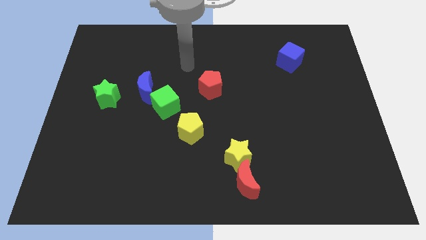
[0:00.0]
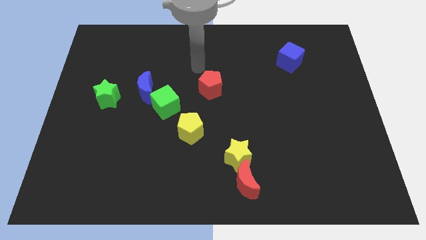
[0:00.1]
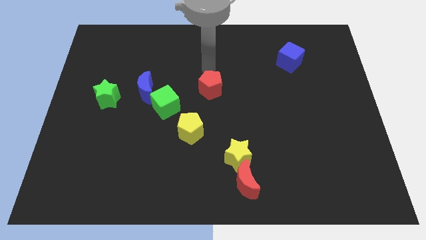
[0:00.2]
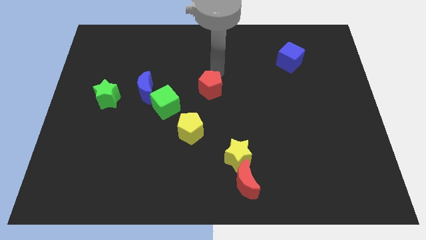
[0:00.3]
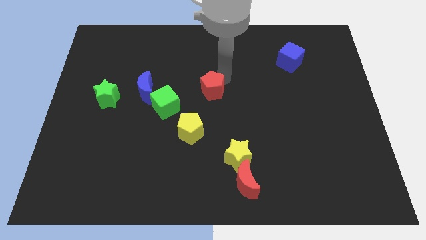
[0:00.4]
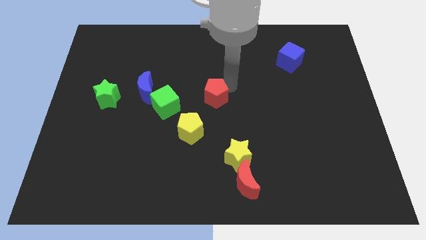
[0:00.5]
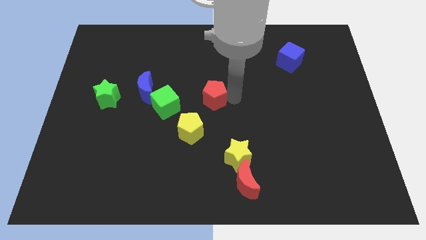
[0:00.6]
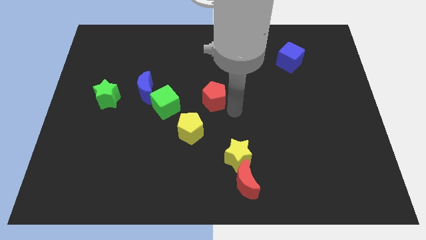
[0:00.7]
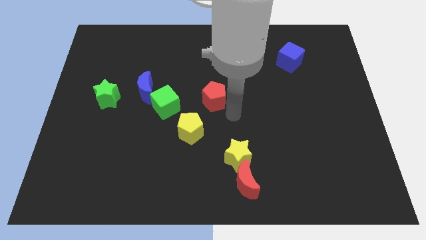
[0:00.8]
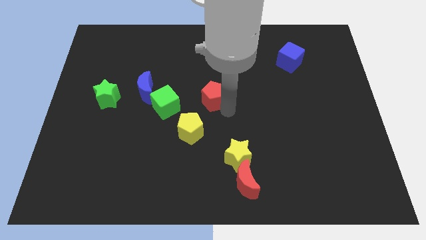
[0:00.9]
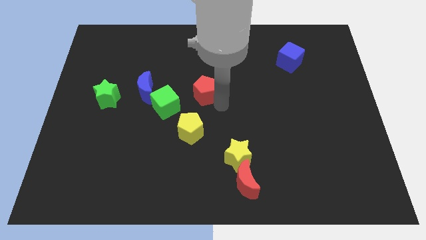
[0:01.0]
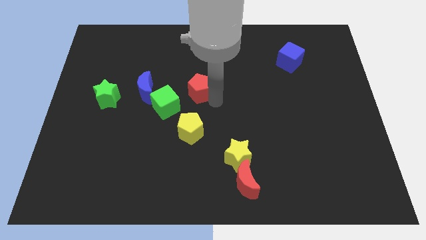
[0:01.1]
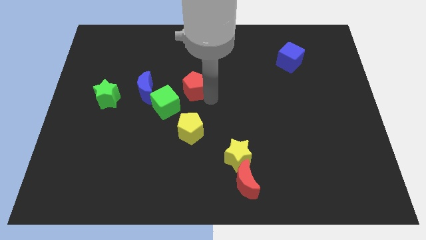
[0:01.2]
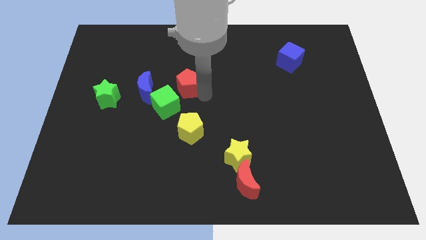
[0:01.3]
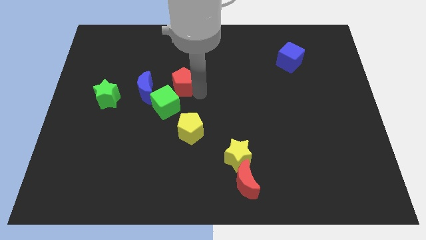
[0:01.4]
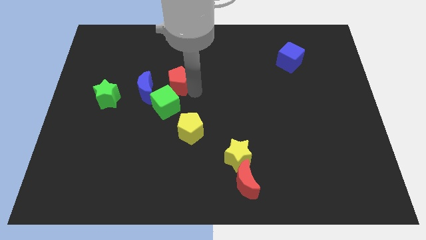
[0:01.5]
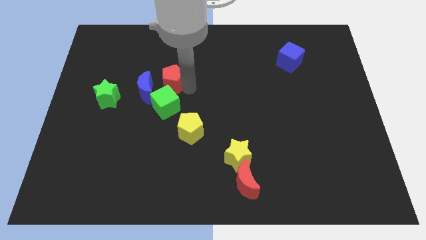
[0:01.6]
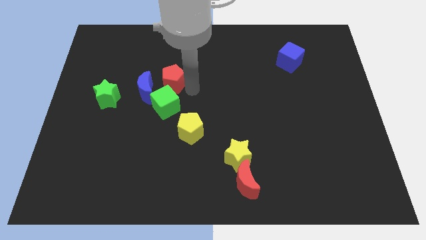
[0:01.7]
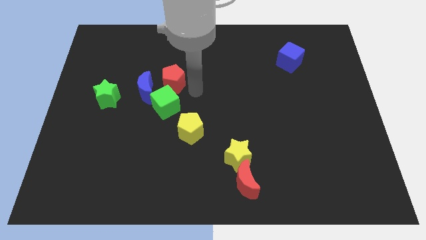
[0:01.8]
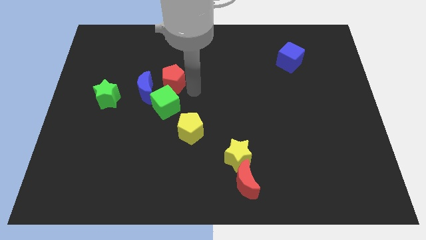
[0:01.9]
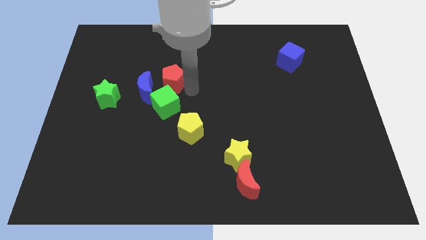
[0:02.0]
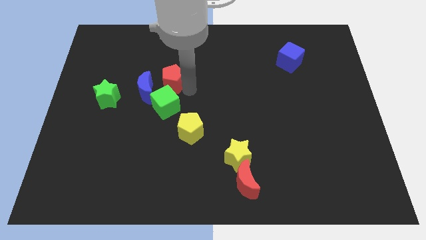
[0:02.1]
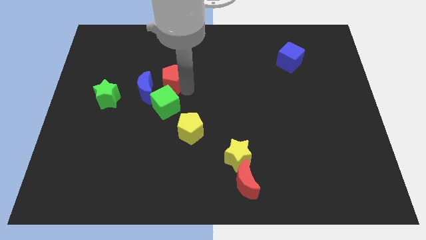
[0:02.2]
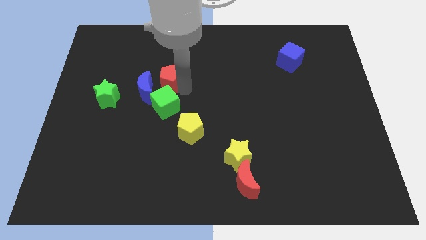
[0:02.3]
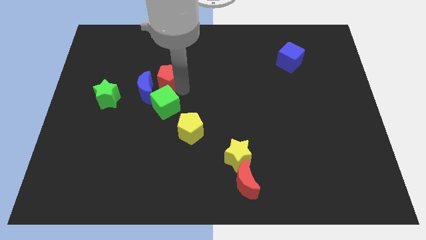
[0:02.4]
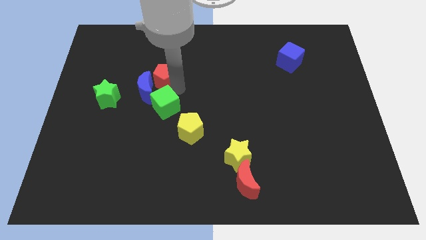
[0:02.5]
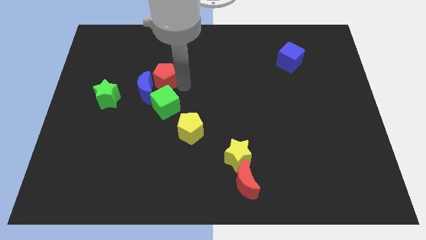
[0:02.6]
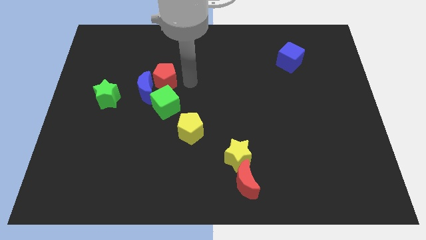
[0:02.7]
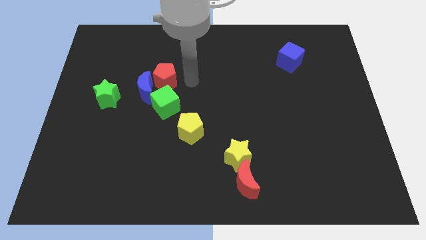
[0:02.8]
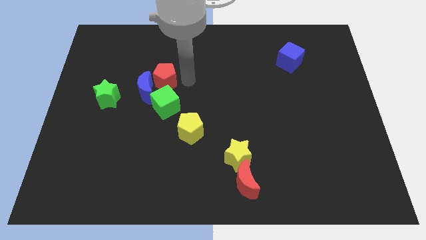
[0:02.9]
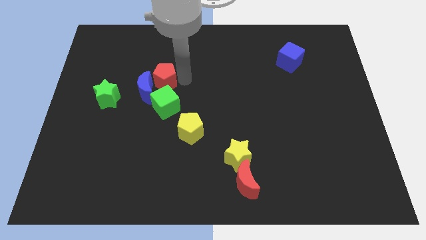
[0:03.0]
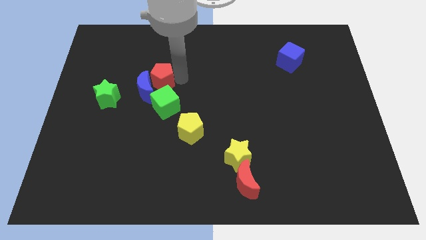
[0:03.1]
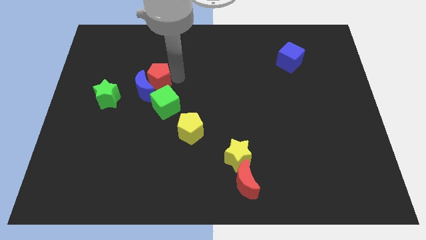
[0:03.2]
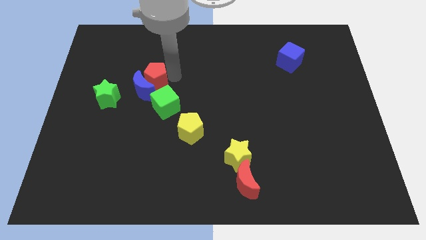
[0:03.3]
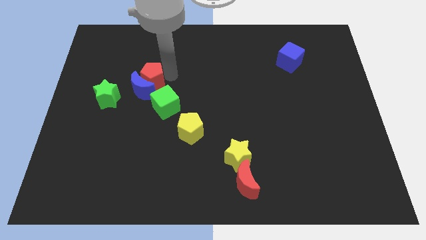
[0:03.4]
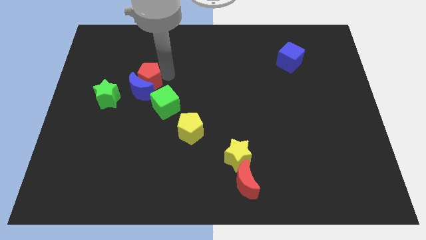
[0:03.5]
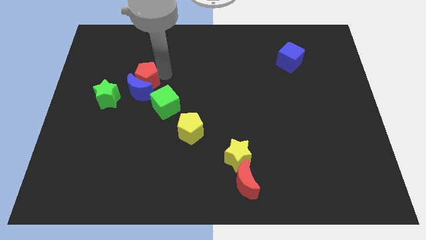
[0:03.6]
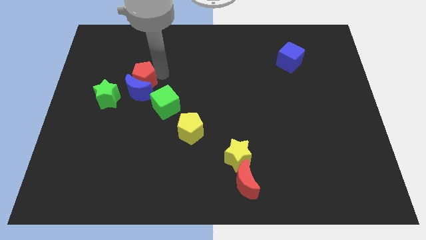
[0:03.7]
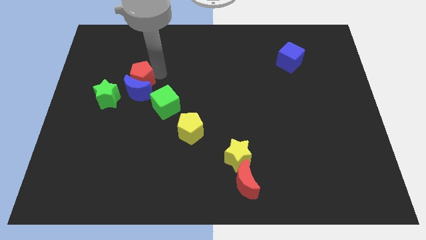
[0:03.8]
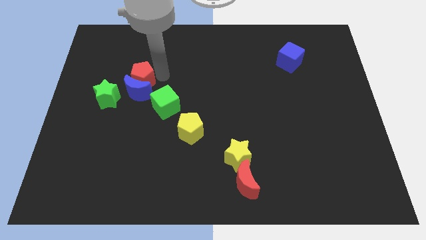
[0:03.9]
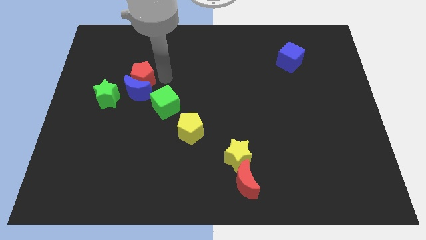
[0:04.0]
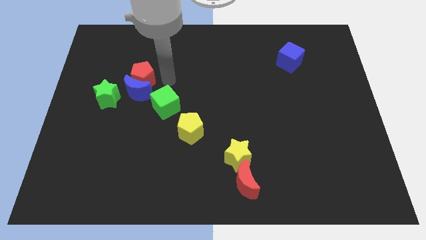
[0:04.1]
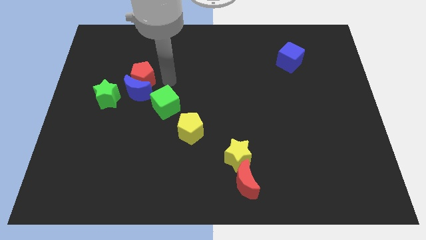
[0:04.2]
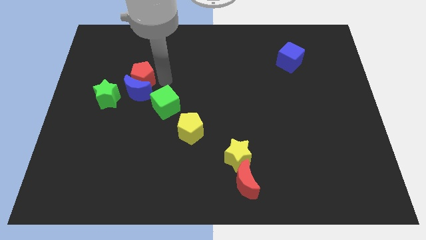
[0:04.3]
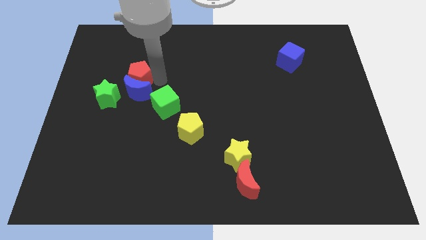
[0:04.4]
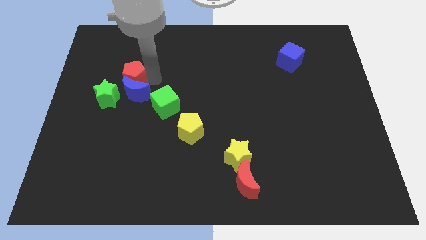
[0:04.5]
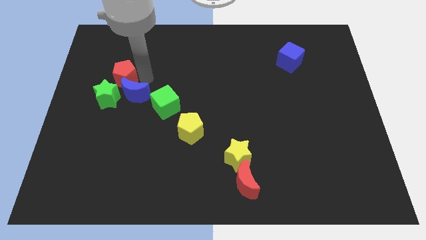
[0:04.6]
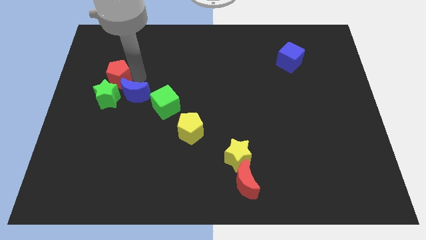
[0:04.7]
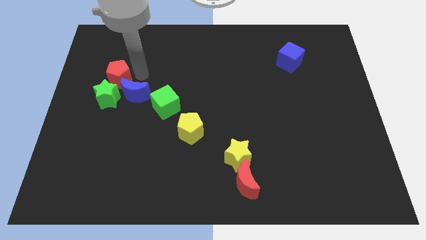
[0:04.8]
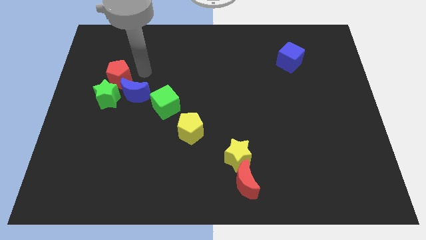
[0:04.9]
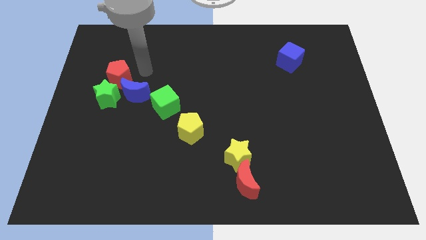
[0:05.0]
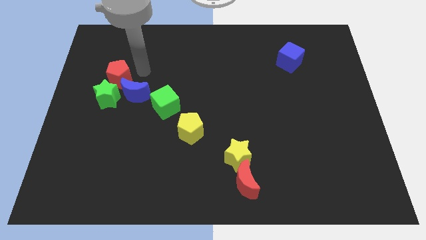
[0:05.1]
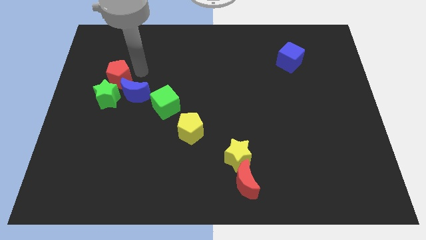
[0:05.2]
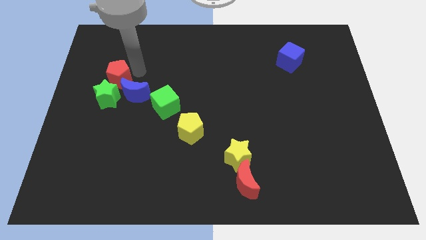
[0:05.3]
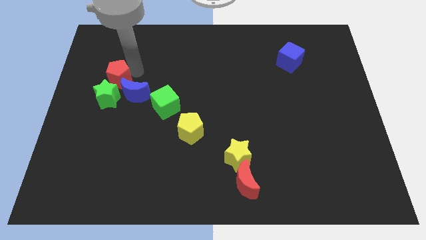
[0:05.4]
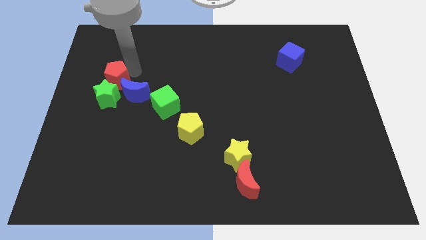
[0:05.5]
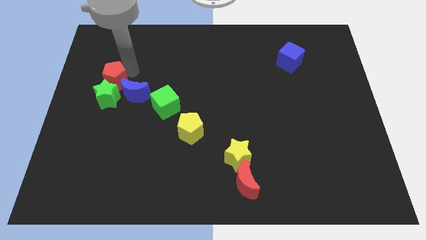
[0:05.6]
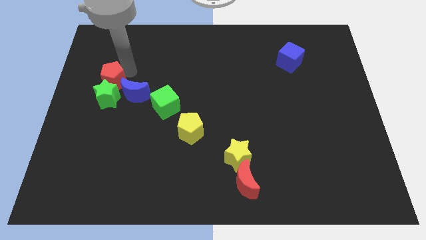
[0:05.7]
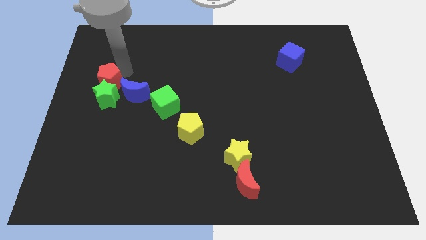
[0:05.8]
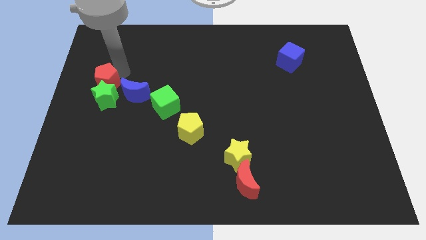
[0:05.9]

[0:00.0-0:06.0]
slide the red pentagon to the left side

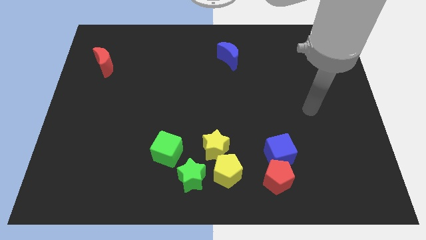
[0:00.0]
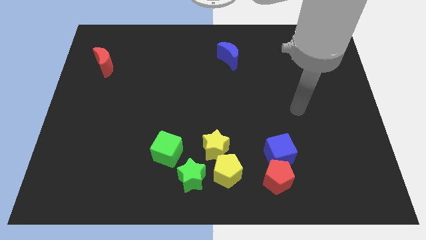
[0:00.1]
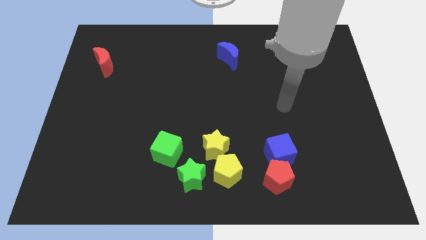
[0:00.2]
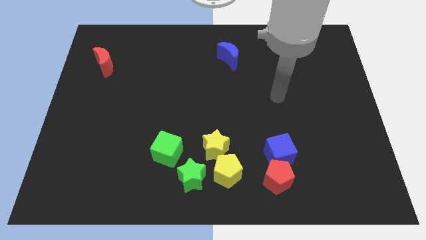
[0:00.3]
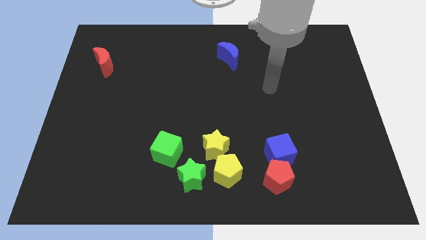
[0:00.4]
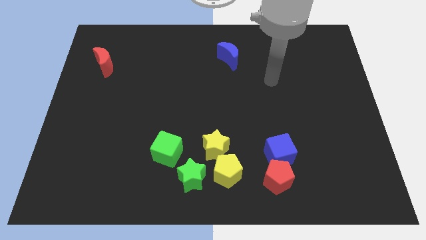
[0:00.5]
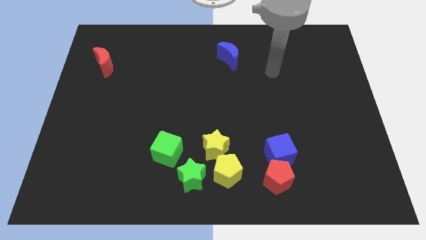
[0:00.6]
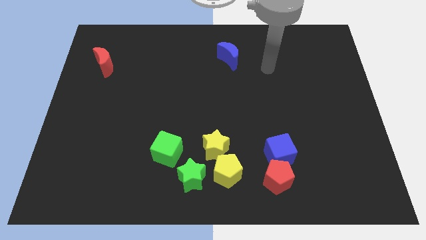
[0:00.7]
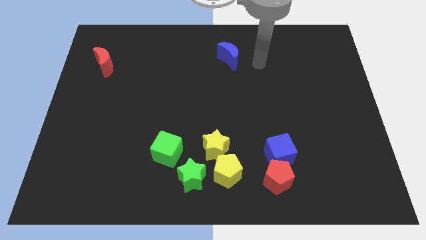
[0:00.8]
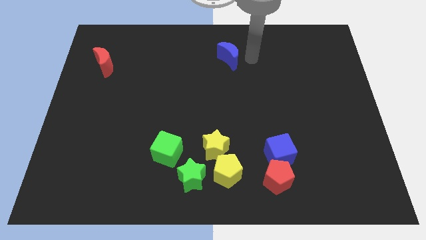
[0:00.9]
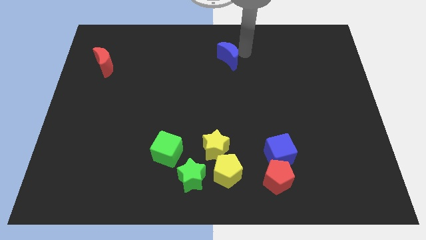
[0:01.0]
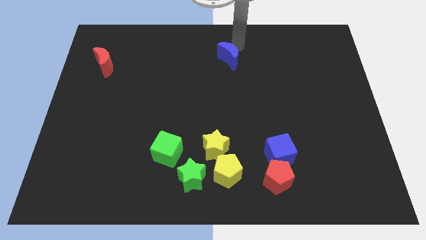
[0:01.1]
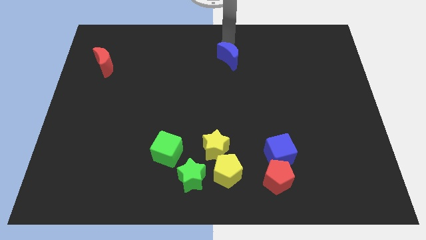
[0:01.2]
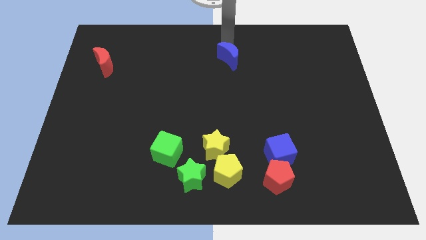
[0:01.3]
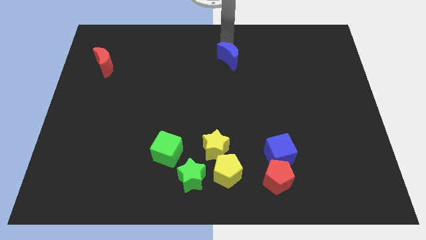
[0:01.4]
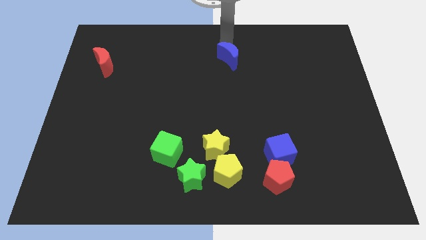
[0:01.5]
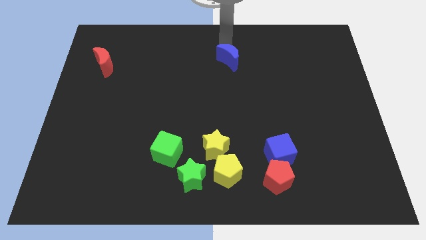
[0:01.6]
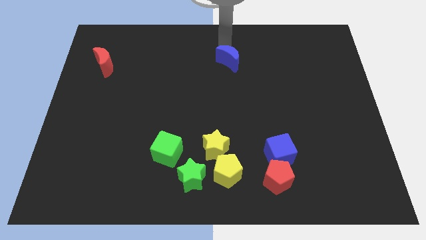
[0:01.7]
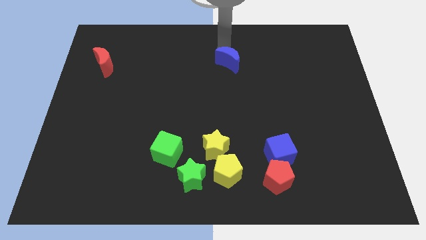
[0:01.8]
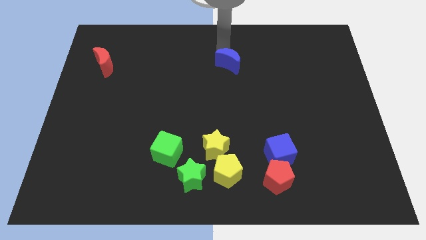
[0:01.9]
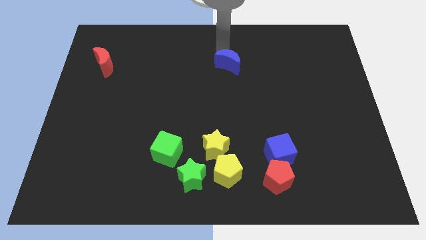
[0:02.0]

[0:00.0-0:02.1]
put the blue moon to the middle
